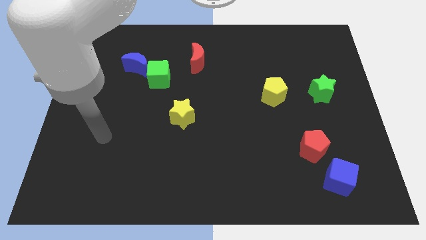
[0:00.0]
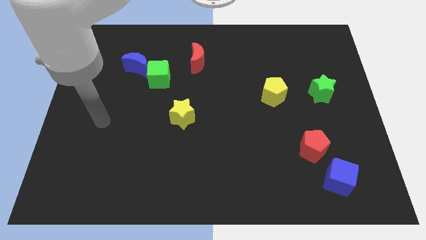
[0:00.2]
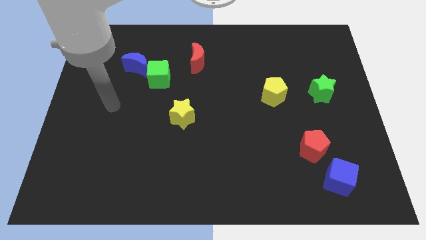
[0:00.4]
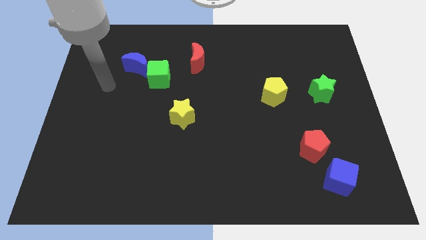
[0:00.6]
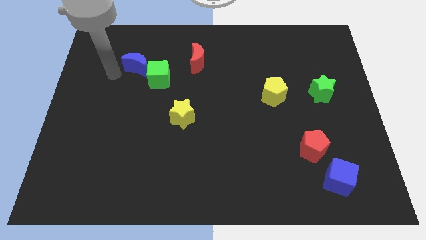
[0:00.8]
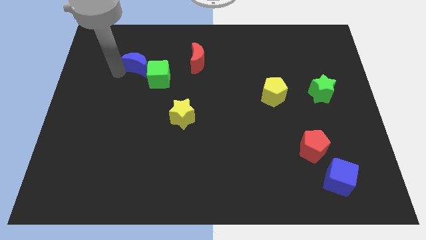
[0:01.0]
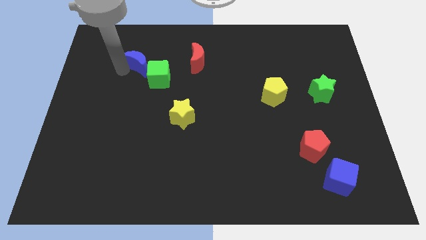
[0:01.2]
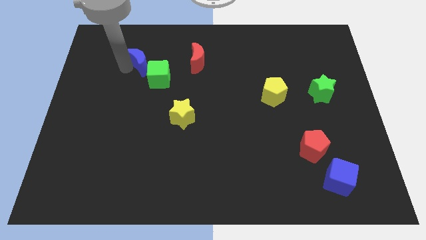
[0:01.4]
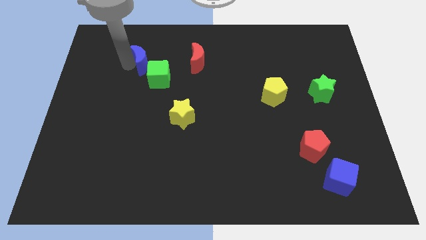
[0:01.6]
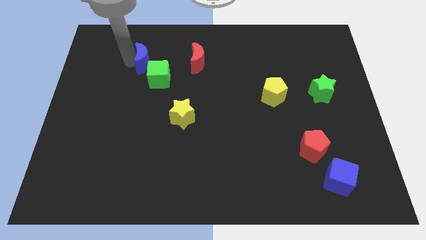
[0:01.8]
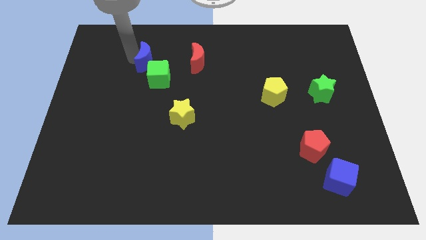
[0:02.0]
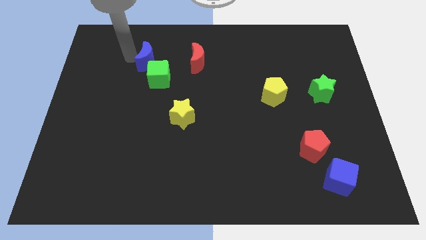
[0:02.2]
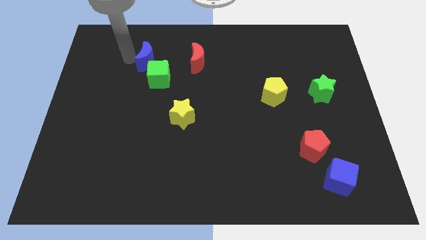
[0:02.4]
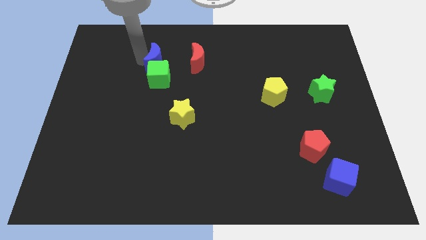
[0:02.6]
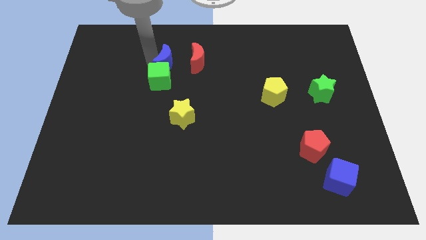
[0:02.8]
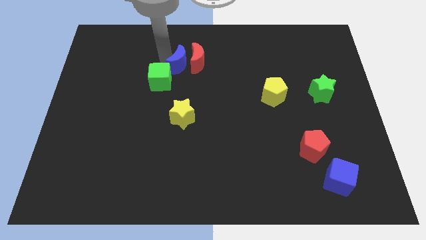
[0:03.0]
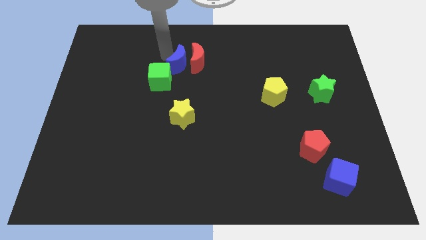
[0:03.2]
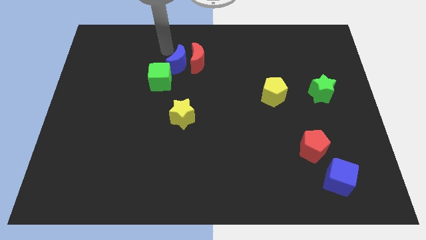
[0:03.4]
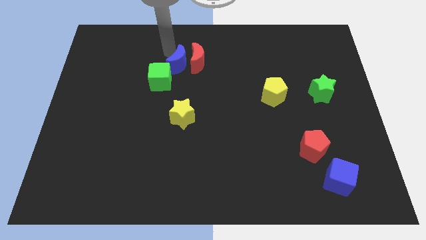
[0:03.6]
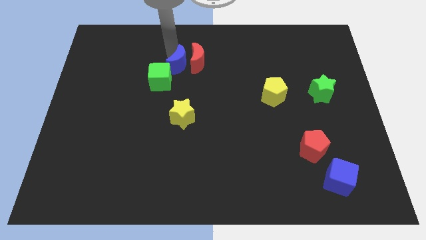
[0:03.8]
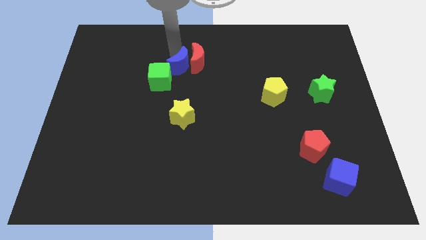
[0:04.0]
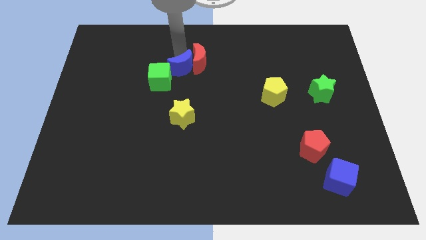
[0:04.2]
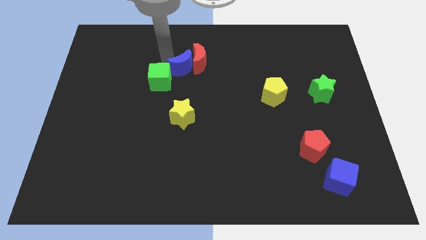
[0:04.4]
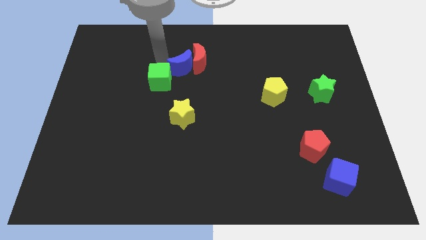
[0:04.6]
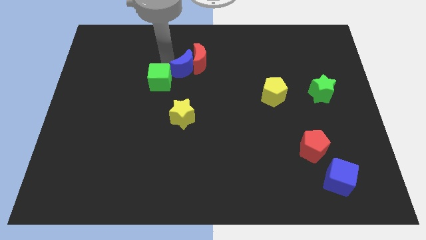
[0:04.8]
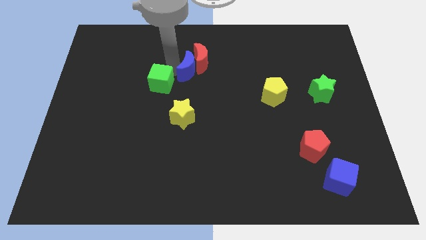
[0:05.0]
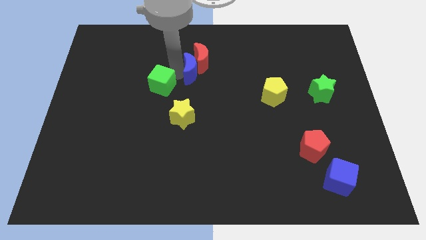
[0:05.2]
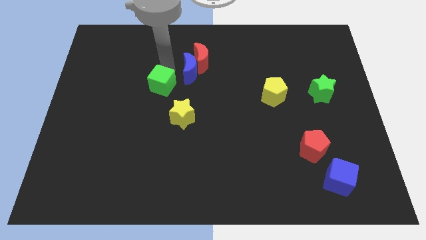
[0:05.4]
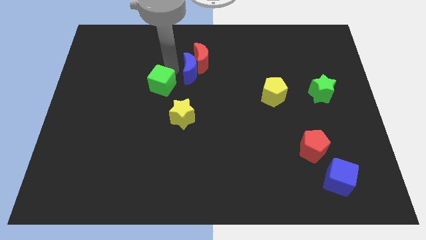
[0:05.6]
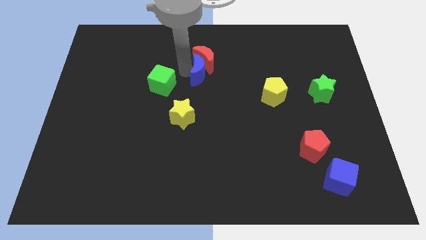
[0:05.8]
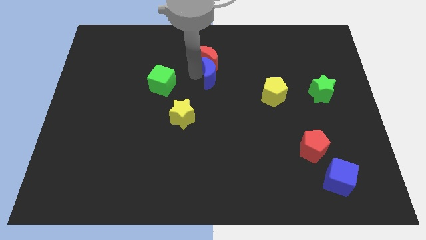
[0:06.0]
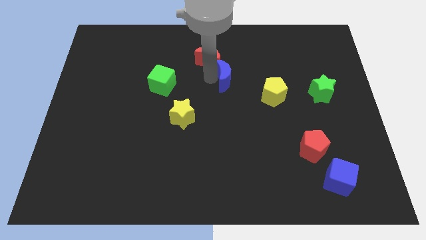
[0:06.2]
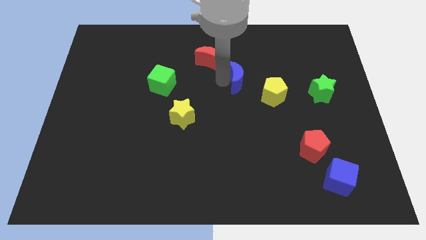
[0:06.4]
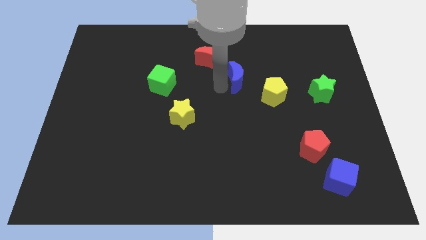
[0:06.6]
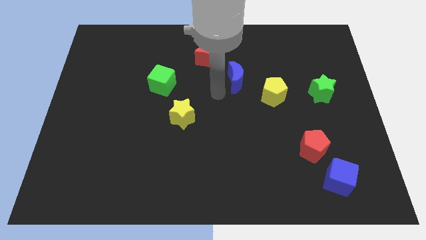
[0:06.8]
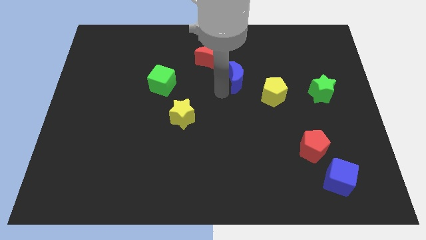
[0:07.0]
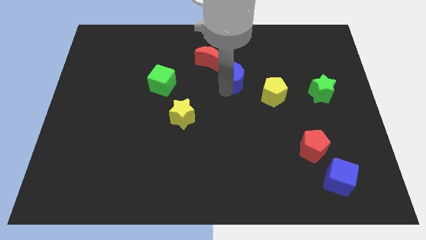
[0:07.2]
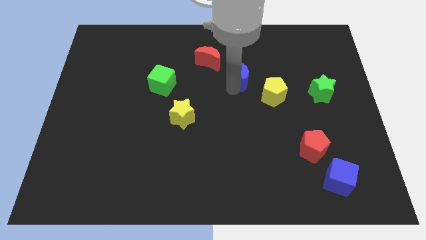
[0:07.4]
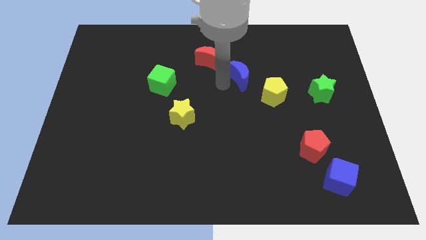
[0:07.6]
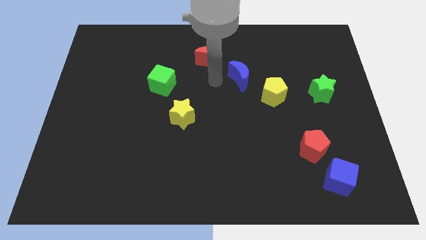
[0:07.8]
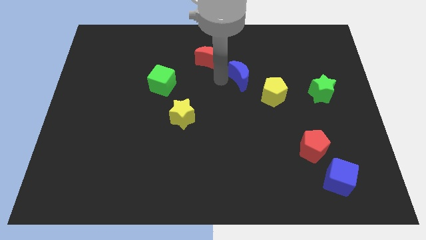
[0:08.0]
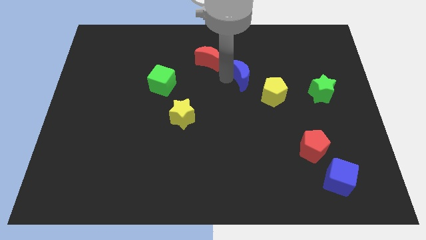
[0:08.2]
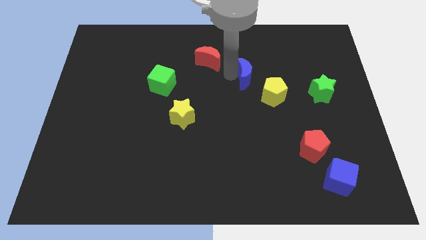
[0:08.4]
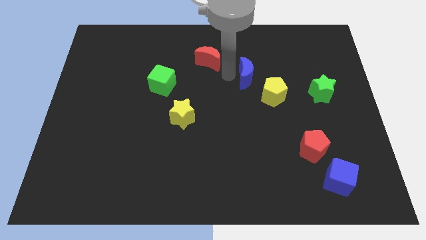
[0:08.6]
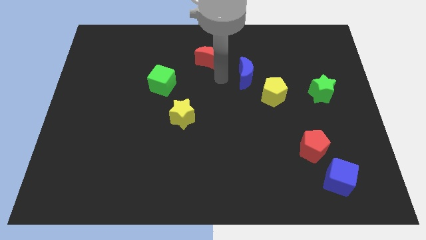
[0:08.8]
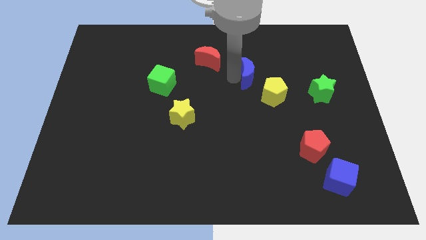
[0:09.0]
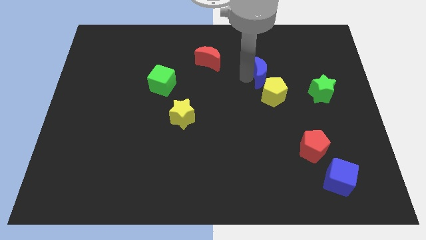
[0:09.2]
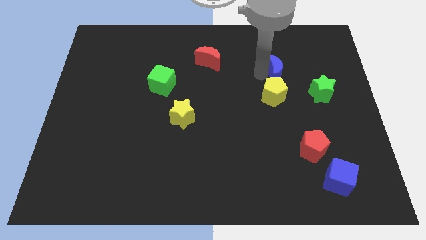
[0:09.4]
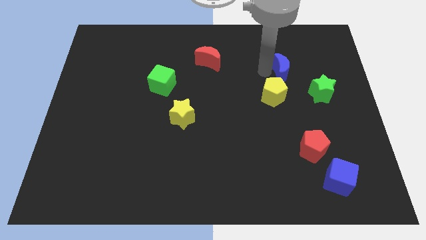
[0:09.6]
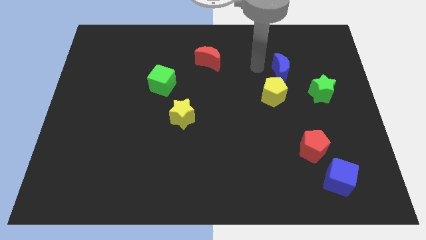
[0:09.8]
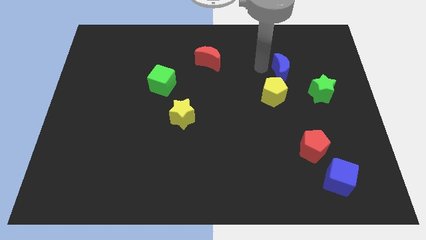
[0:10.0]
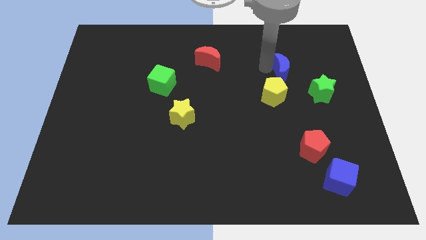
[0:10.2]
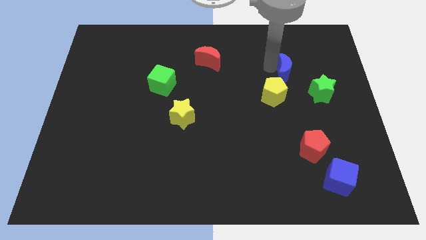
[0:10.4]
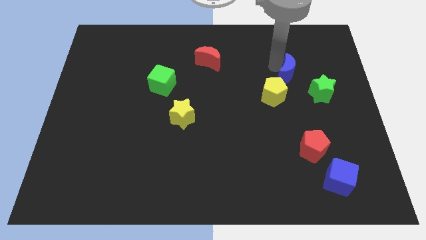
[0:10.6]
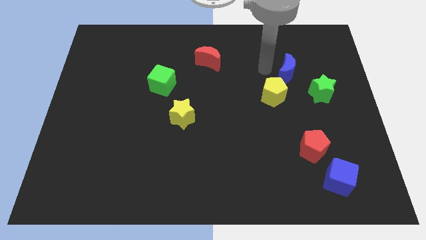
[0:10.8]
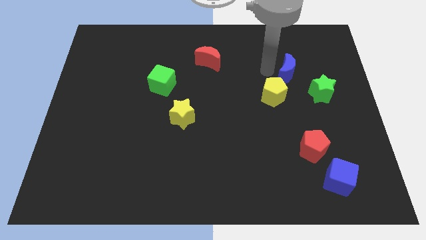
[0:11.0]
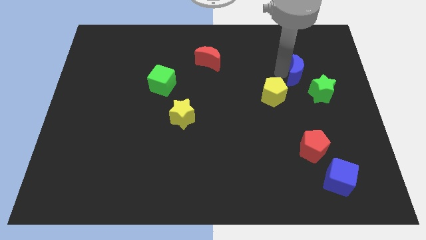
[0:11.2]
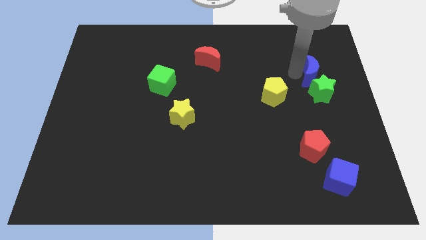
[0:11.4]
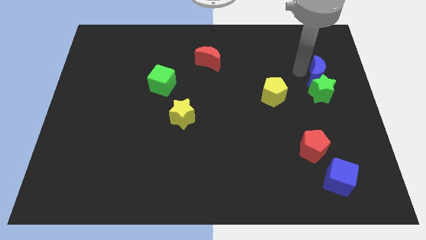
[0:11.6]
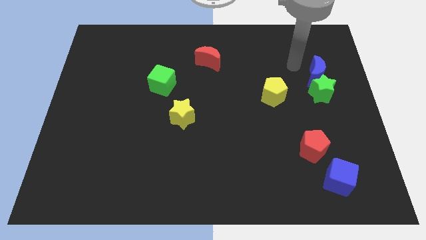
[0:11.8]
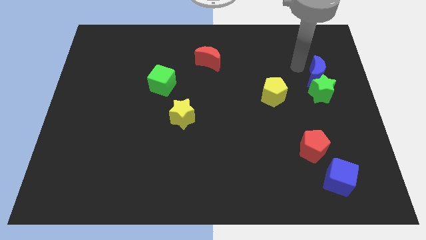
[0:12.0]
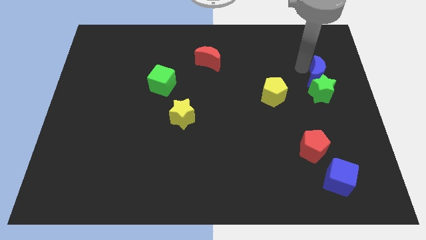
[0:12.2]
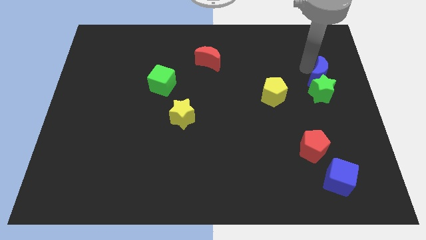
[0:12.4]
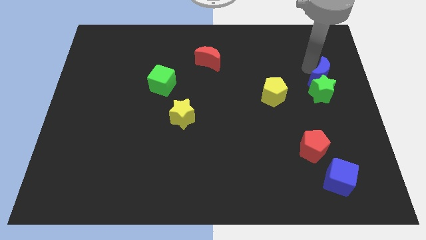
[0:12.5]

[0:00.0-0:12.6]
put the blue moon to the right side of the board

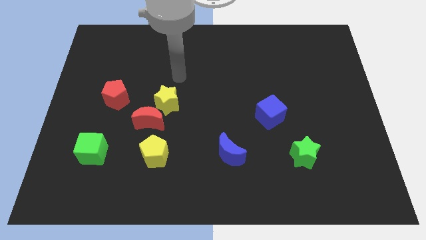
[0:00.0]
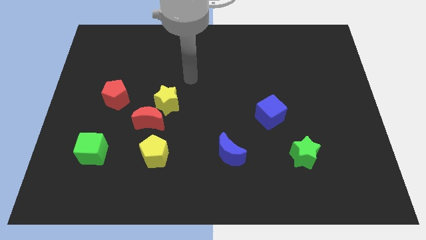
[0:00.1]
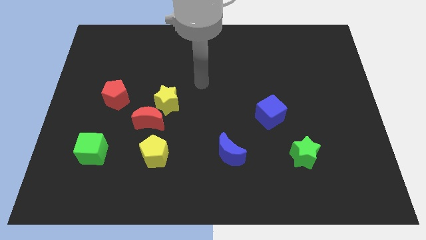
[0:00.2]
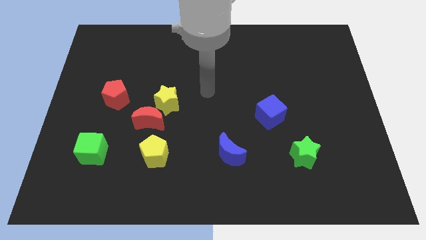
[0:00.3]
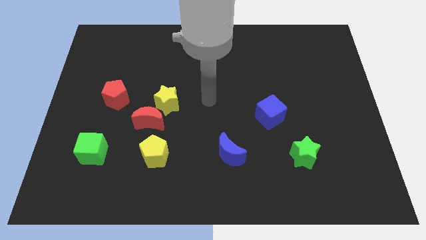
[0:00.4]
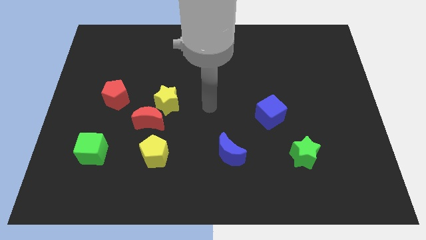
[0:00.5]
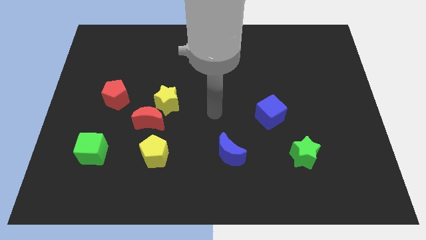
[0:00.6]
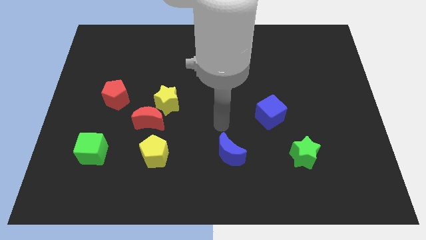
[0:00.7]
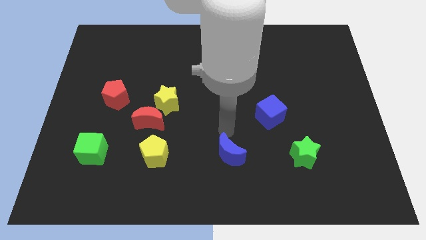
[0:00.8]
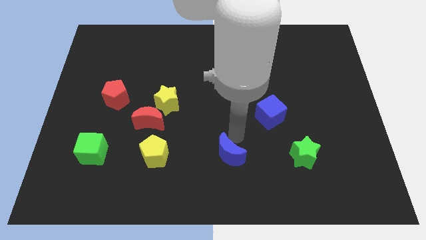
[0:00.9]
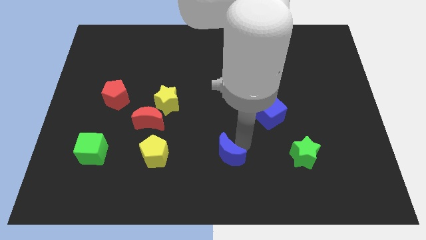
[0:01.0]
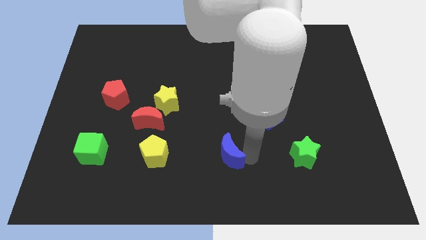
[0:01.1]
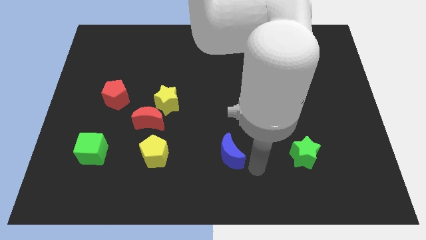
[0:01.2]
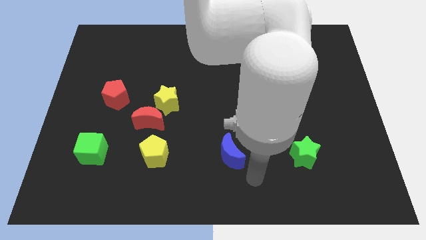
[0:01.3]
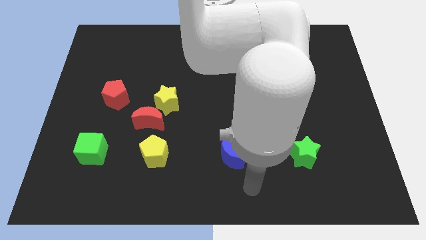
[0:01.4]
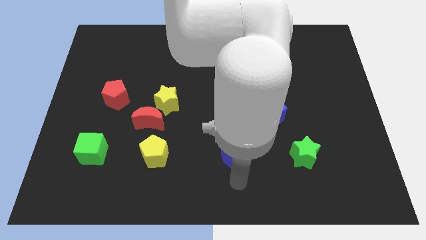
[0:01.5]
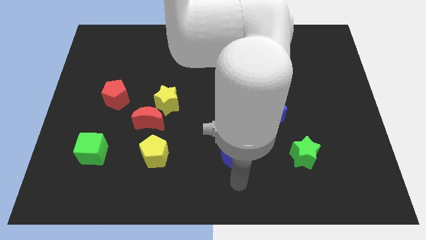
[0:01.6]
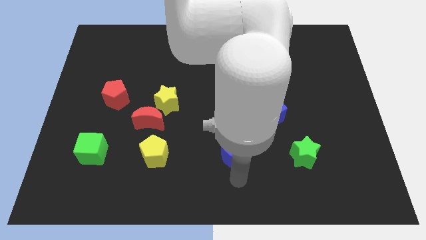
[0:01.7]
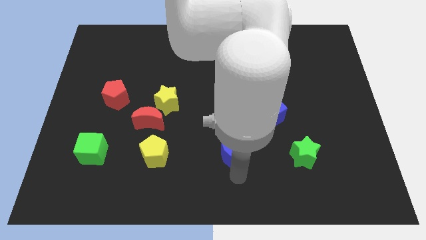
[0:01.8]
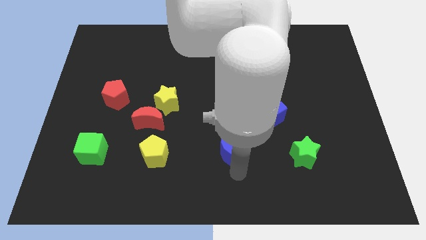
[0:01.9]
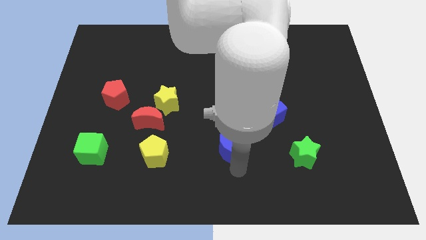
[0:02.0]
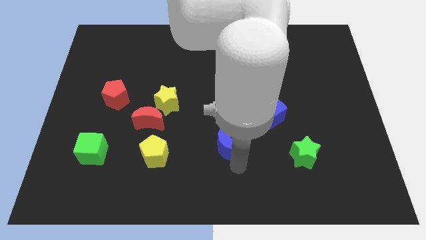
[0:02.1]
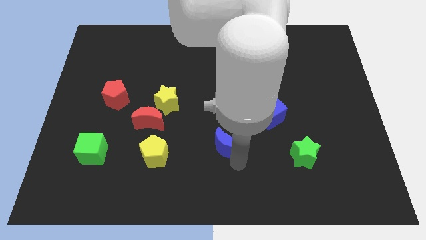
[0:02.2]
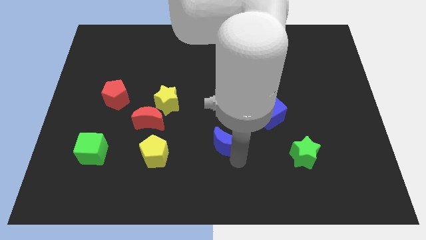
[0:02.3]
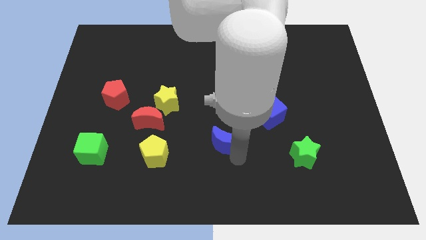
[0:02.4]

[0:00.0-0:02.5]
put the blue moon to the middle of the board
